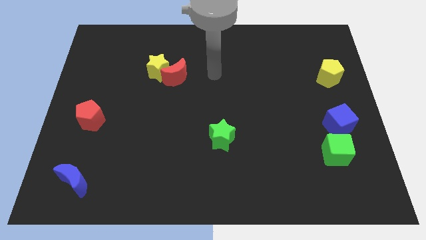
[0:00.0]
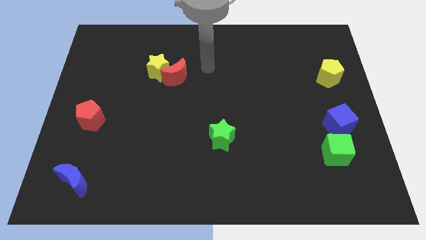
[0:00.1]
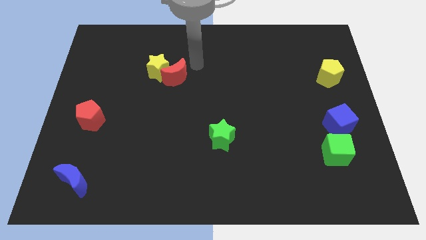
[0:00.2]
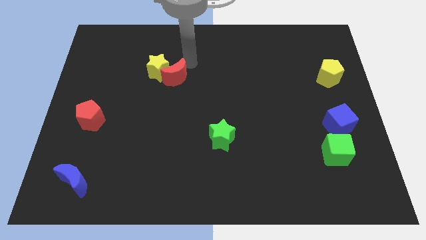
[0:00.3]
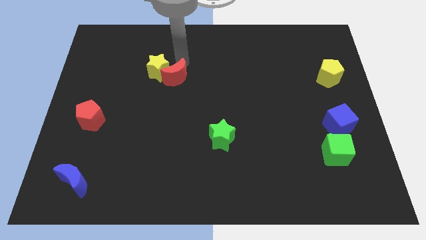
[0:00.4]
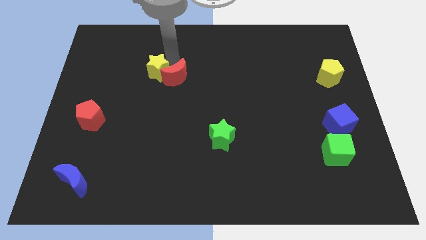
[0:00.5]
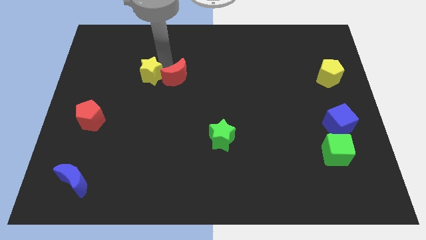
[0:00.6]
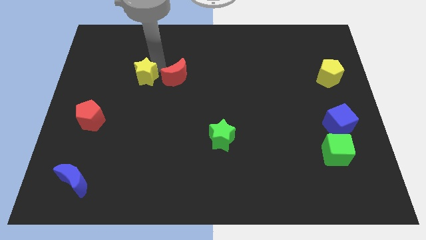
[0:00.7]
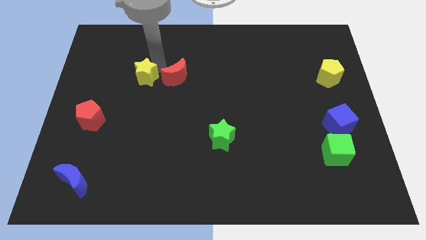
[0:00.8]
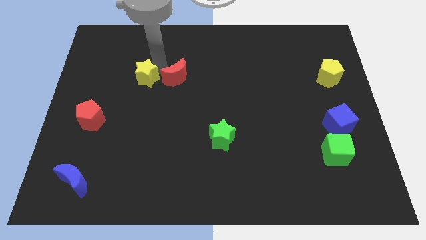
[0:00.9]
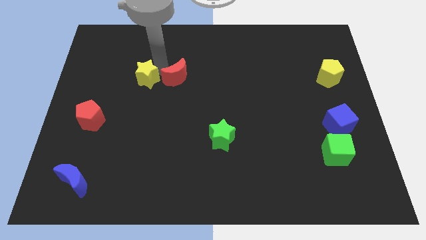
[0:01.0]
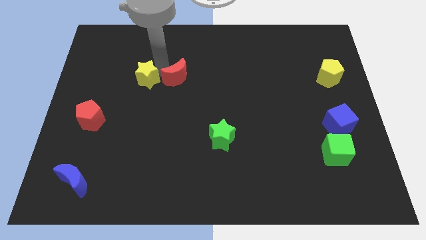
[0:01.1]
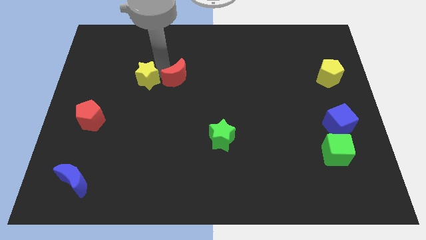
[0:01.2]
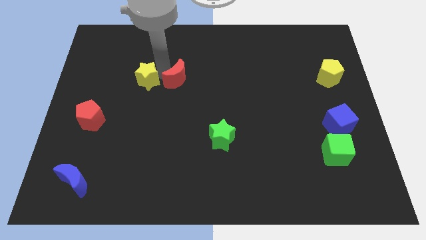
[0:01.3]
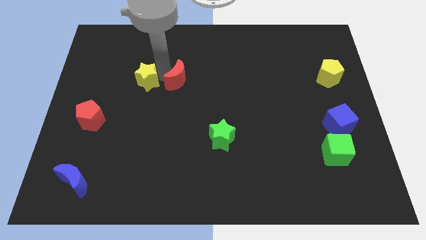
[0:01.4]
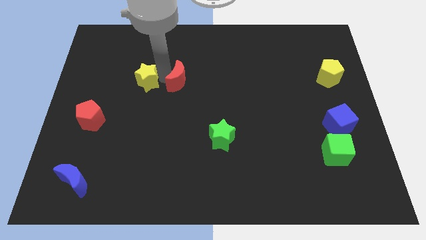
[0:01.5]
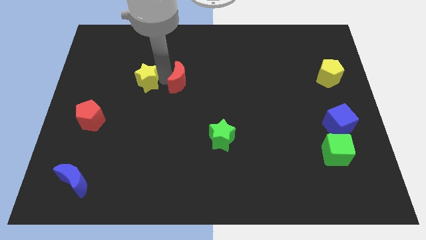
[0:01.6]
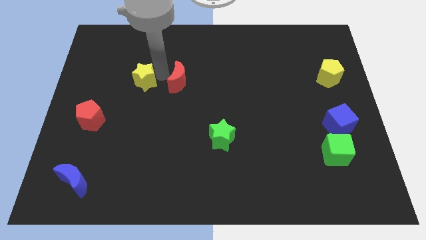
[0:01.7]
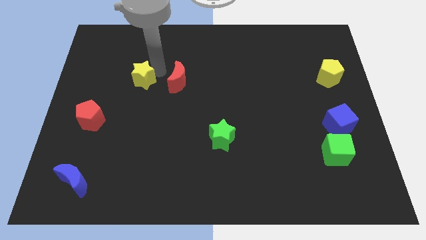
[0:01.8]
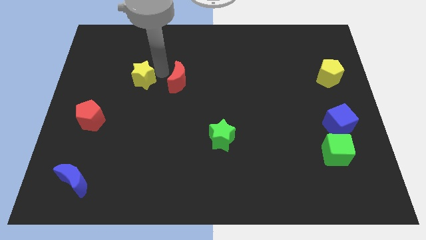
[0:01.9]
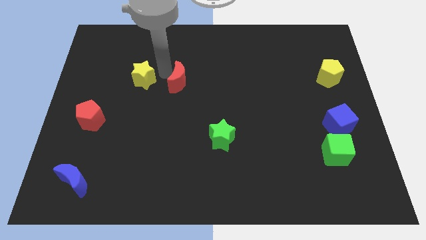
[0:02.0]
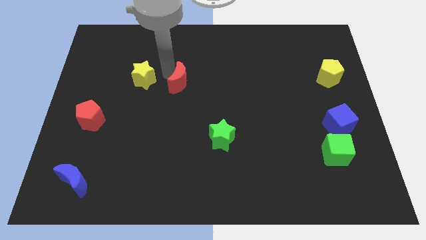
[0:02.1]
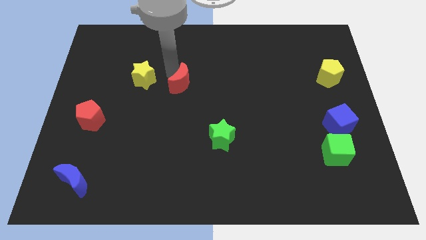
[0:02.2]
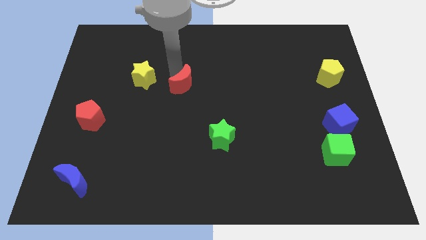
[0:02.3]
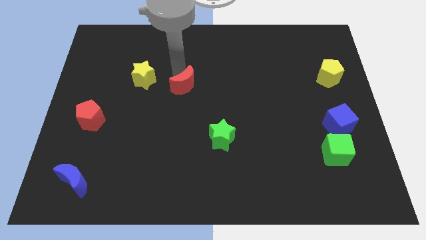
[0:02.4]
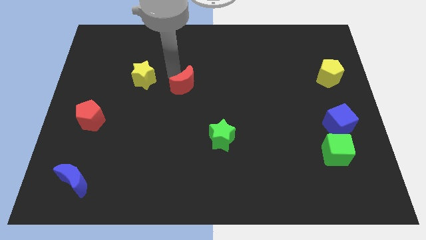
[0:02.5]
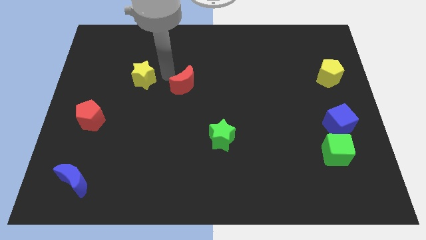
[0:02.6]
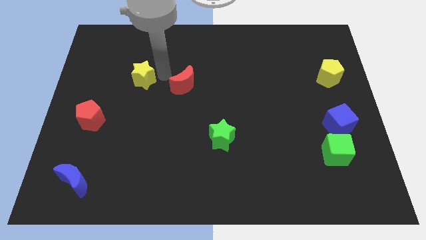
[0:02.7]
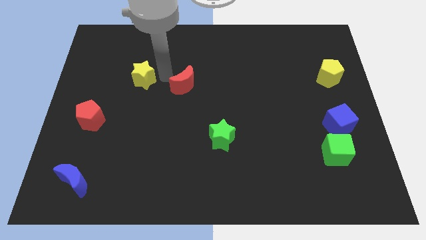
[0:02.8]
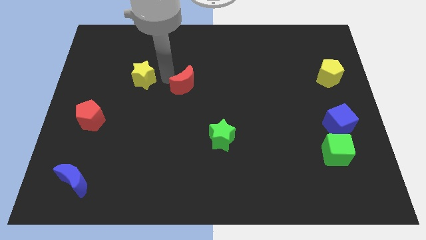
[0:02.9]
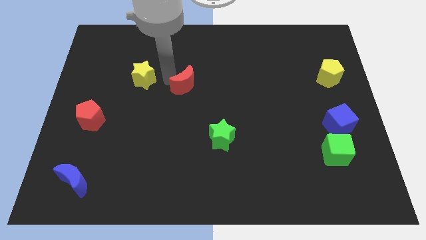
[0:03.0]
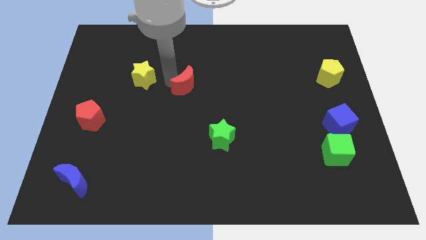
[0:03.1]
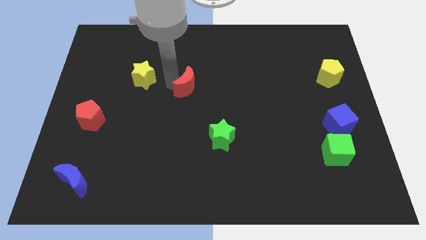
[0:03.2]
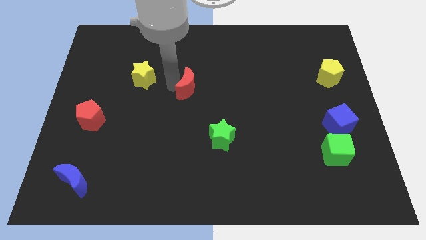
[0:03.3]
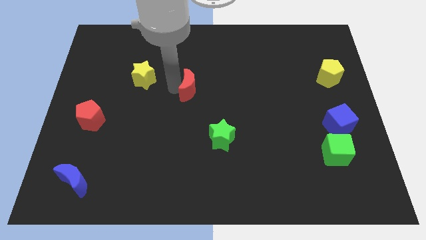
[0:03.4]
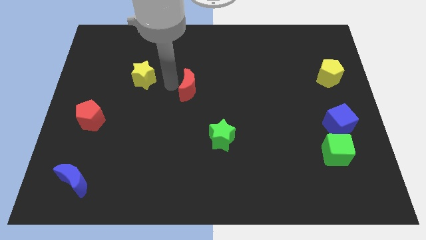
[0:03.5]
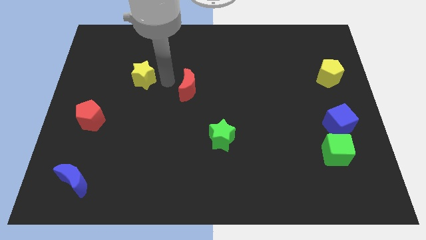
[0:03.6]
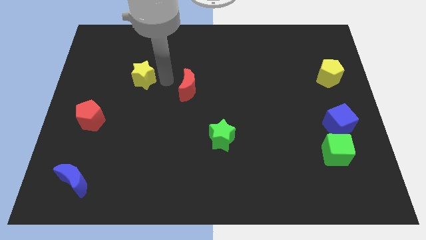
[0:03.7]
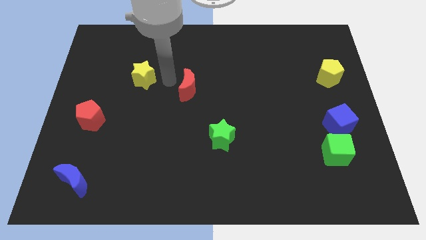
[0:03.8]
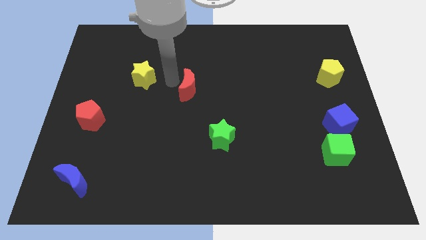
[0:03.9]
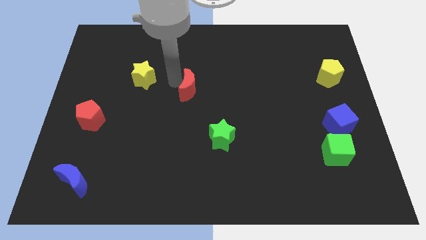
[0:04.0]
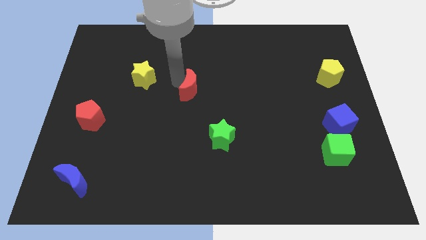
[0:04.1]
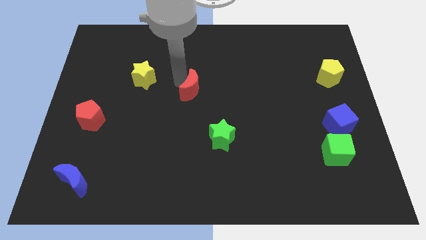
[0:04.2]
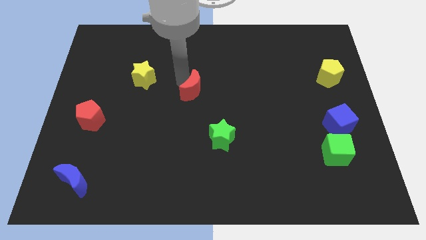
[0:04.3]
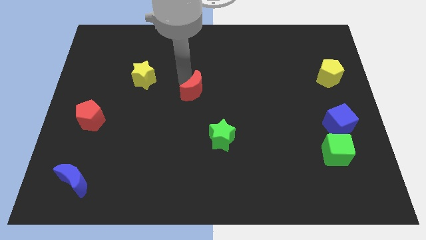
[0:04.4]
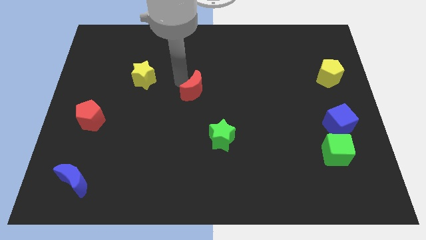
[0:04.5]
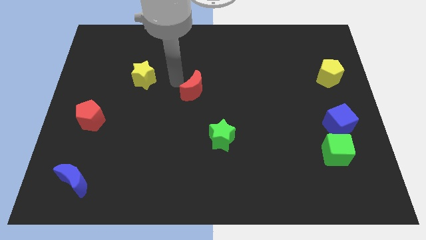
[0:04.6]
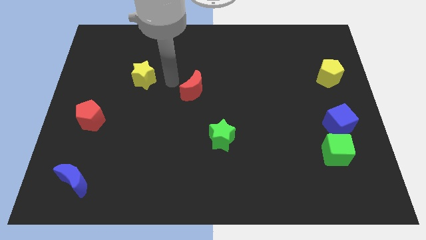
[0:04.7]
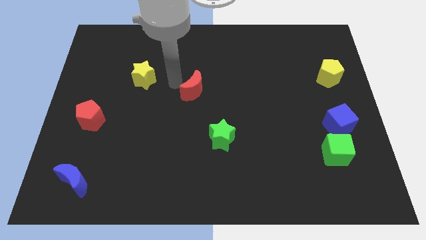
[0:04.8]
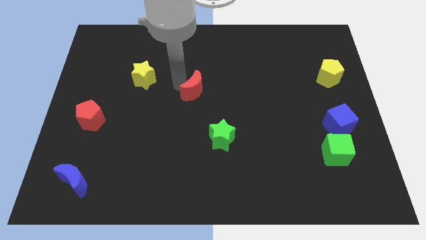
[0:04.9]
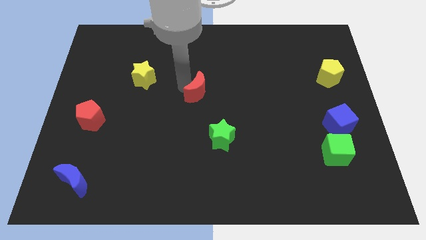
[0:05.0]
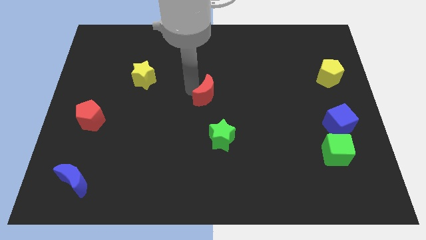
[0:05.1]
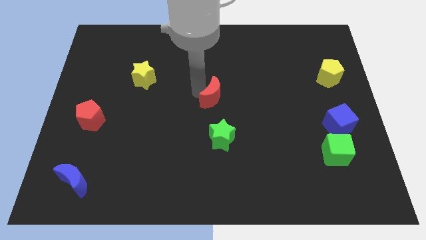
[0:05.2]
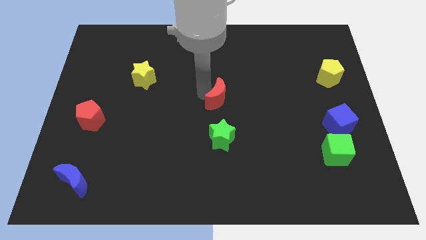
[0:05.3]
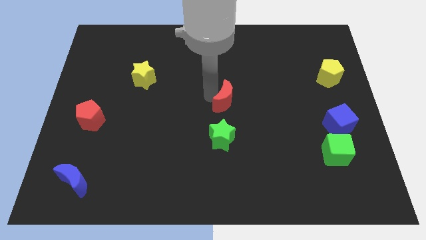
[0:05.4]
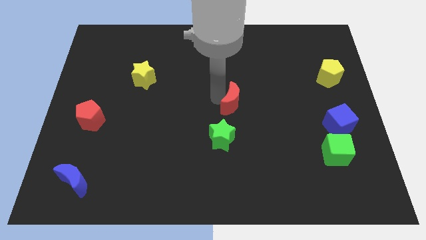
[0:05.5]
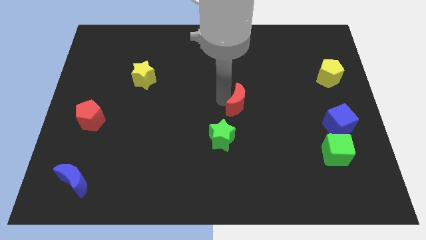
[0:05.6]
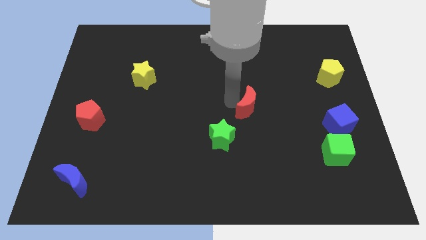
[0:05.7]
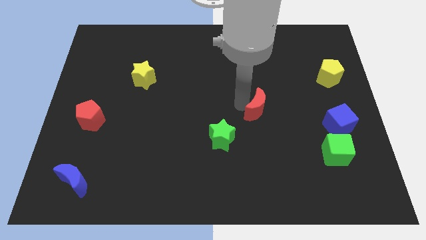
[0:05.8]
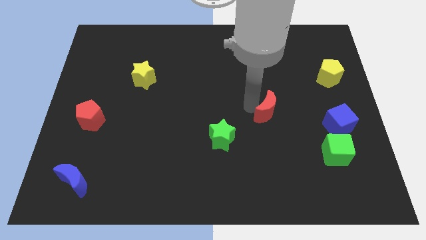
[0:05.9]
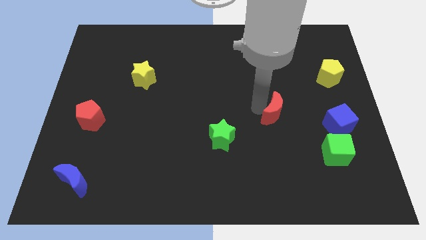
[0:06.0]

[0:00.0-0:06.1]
move the red moon to the left of the blue cube
